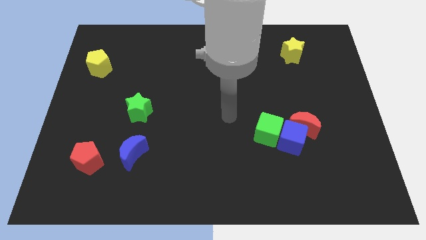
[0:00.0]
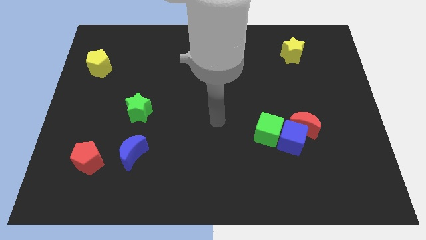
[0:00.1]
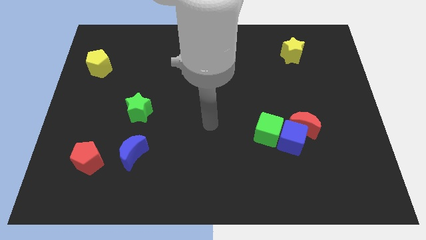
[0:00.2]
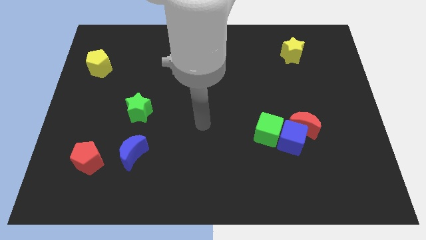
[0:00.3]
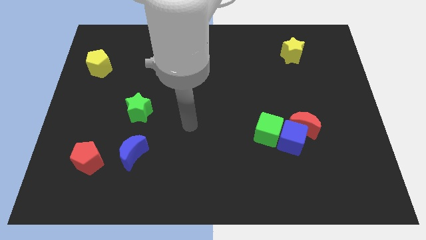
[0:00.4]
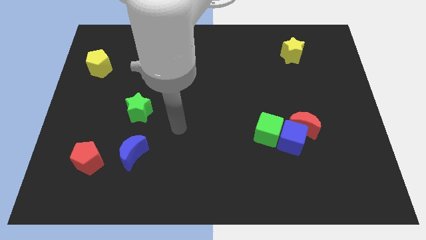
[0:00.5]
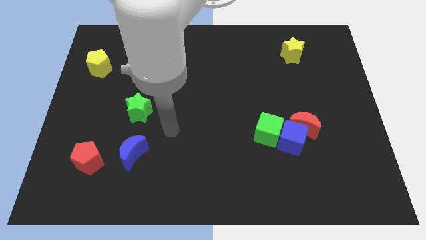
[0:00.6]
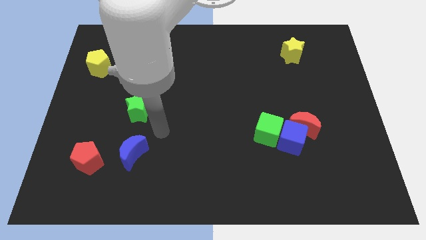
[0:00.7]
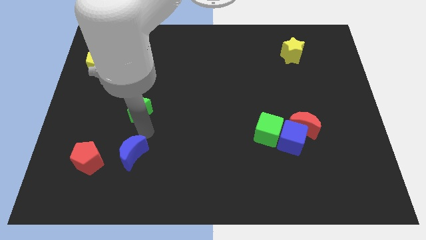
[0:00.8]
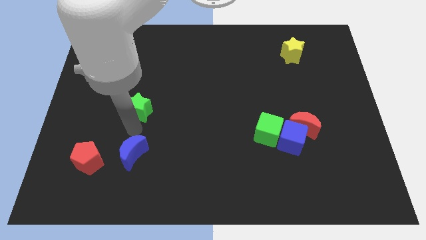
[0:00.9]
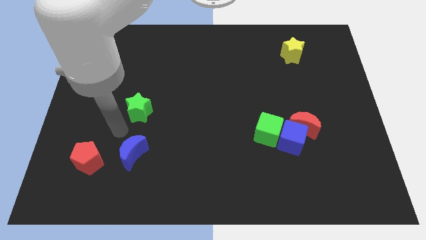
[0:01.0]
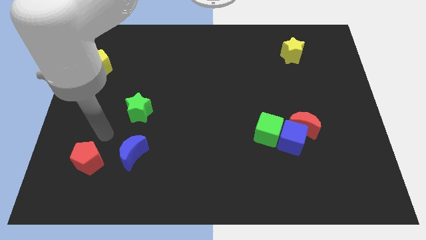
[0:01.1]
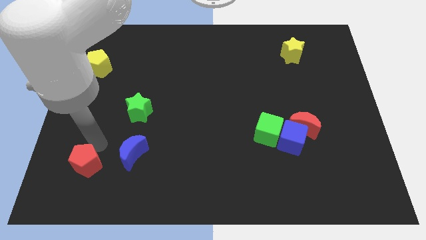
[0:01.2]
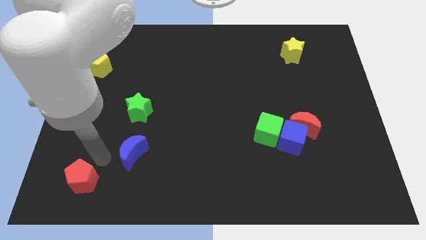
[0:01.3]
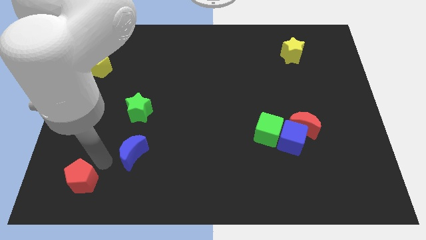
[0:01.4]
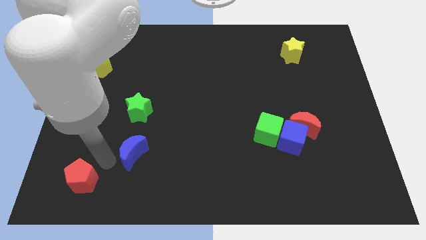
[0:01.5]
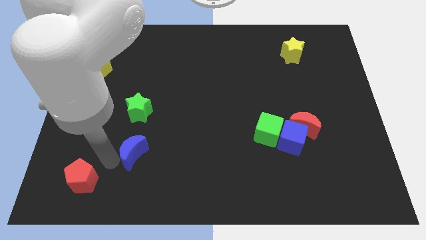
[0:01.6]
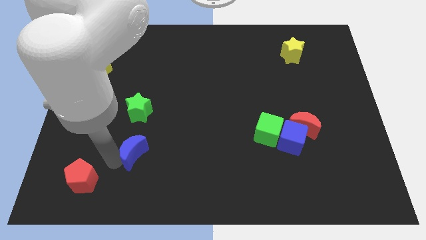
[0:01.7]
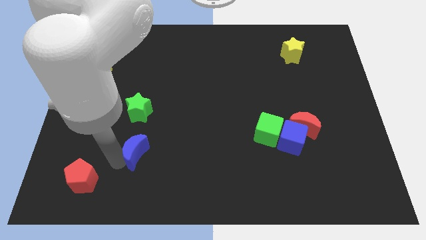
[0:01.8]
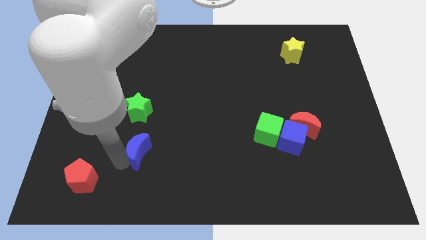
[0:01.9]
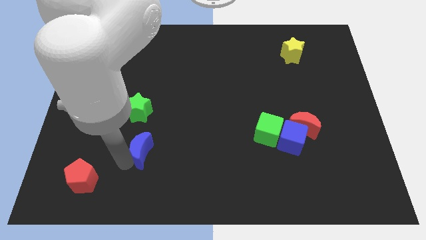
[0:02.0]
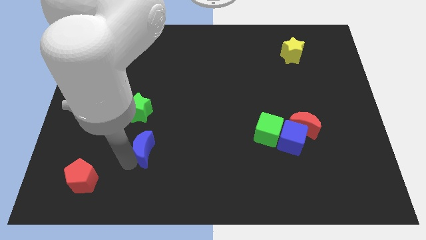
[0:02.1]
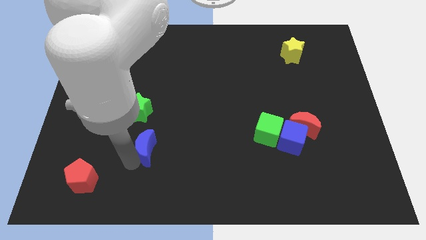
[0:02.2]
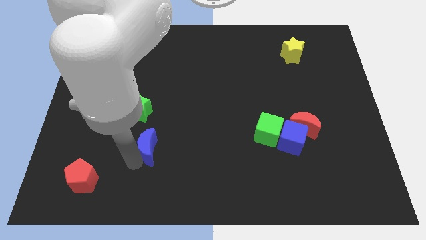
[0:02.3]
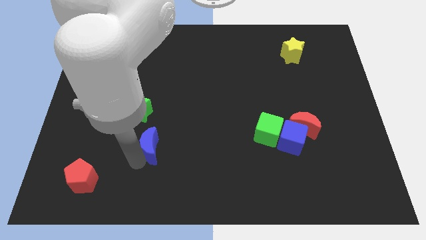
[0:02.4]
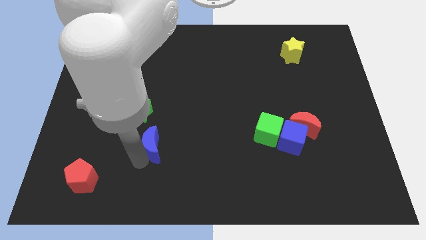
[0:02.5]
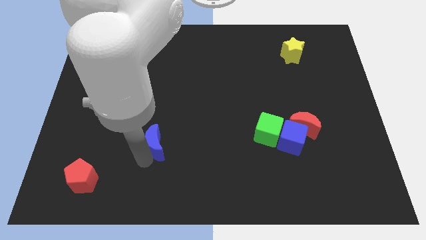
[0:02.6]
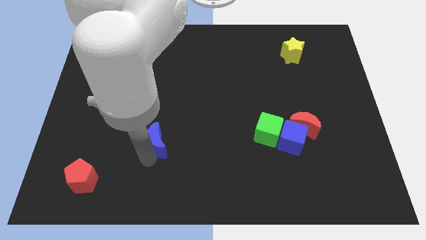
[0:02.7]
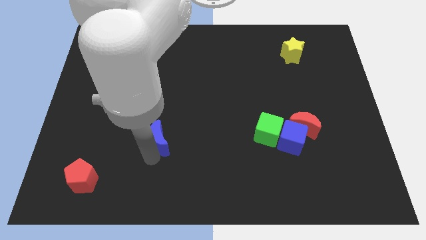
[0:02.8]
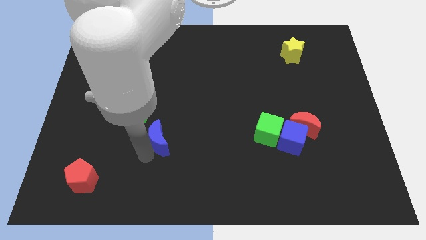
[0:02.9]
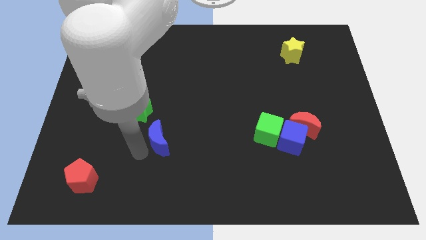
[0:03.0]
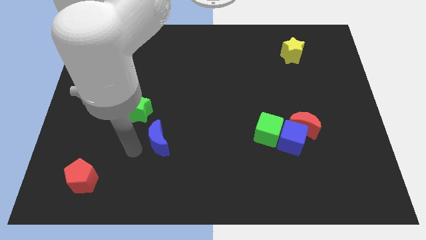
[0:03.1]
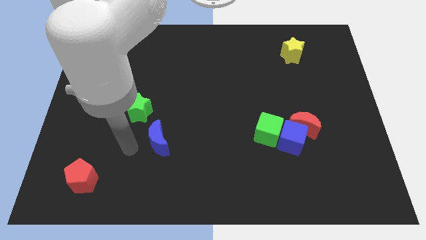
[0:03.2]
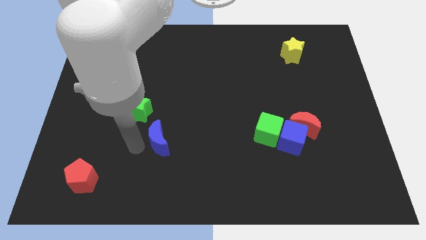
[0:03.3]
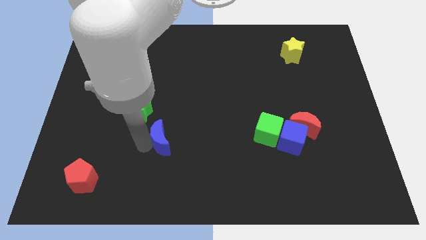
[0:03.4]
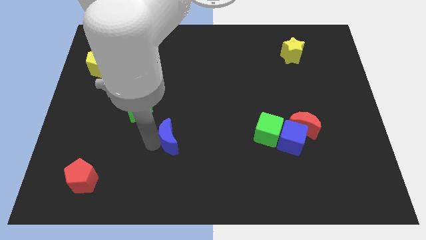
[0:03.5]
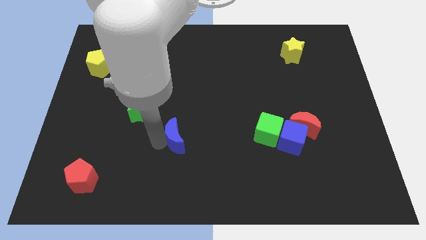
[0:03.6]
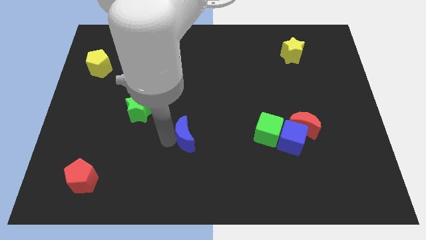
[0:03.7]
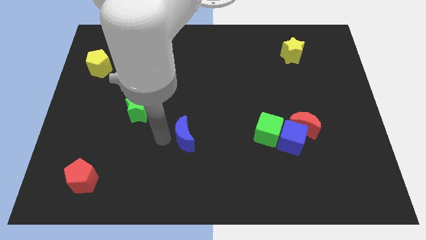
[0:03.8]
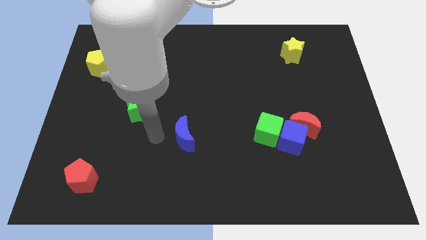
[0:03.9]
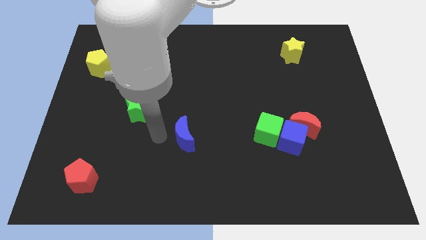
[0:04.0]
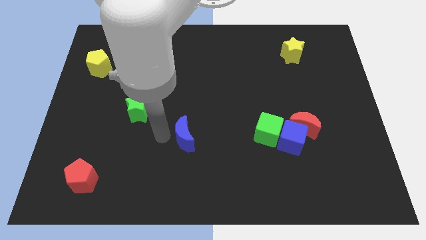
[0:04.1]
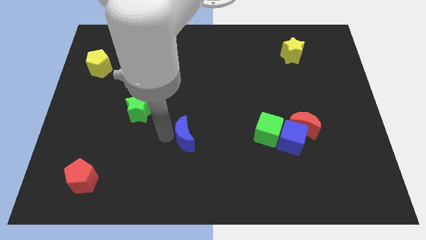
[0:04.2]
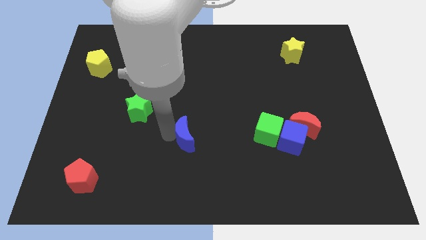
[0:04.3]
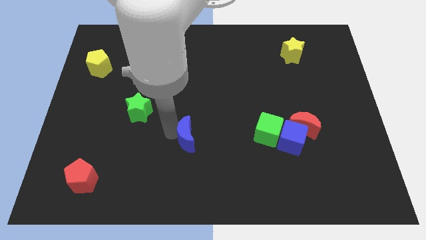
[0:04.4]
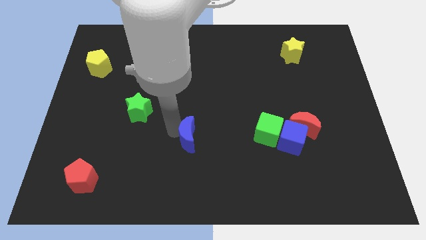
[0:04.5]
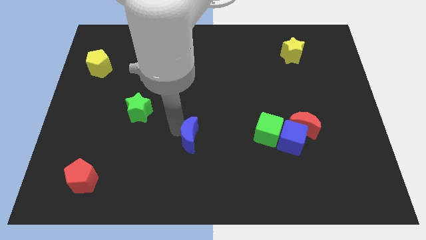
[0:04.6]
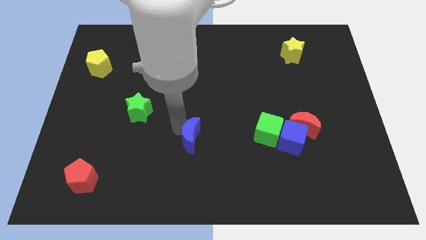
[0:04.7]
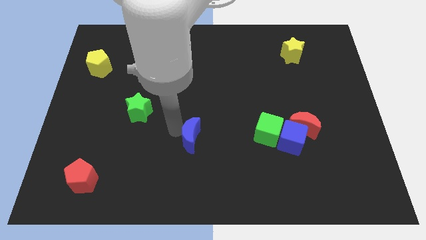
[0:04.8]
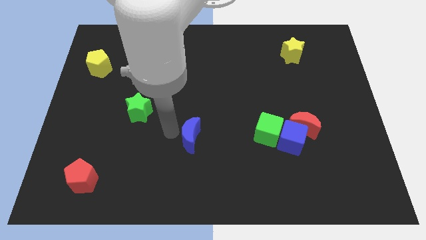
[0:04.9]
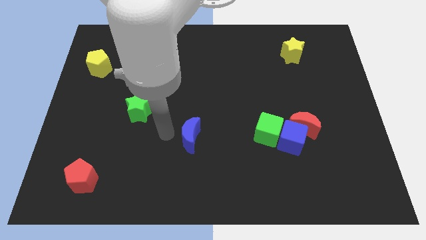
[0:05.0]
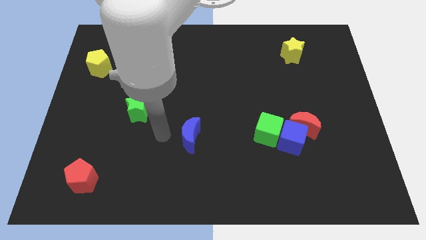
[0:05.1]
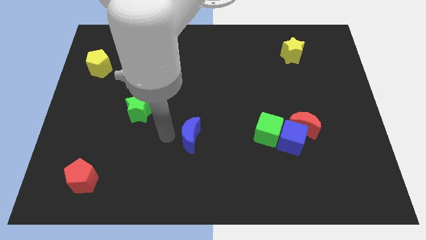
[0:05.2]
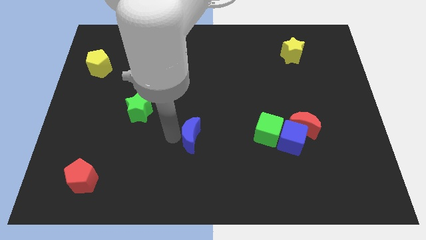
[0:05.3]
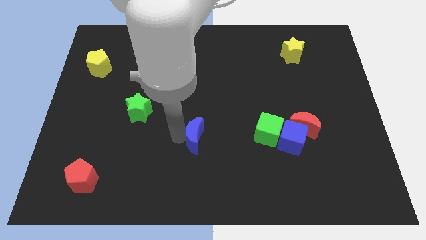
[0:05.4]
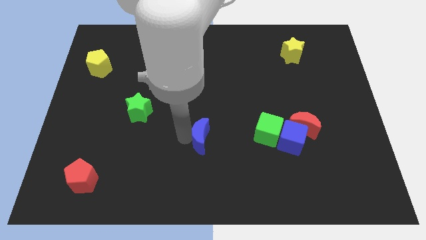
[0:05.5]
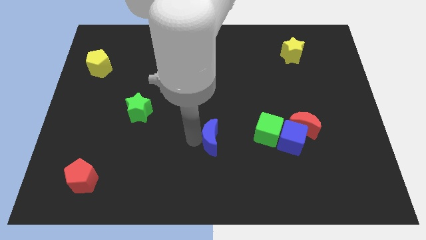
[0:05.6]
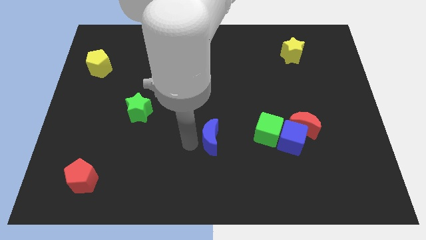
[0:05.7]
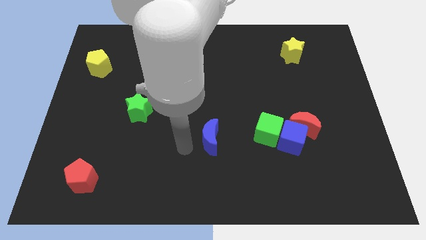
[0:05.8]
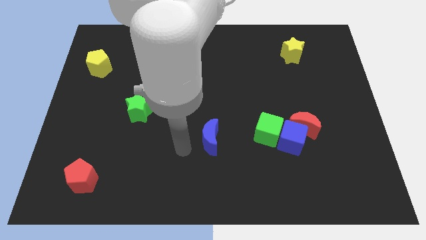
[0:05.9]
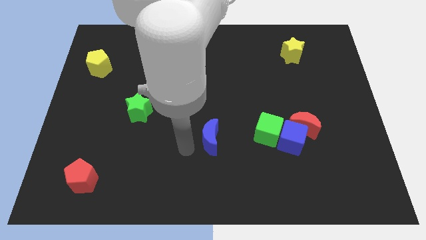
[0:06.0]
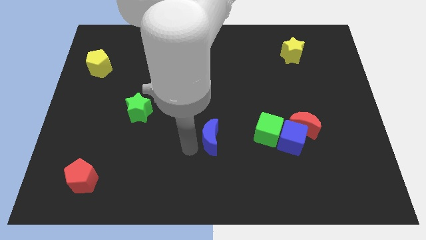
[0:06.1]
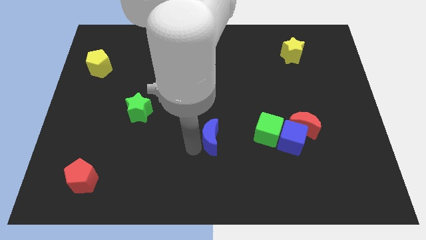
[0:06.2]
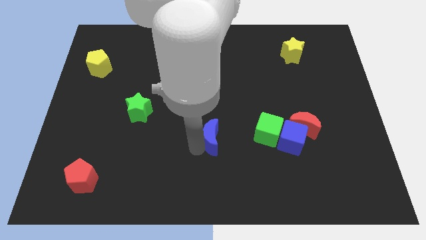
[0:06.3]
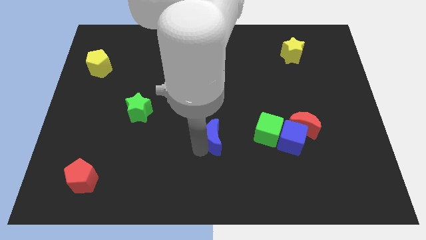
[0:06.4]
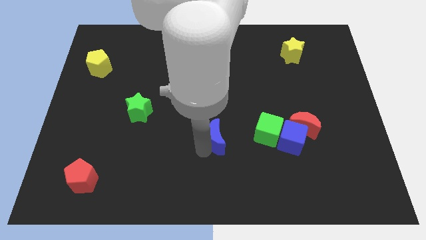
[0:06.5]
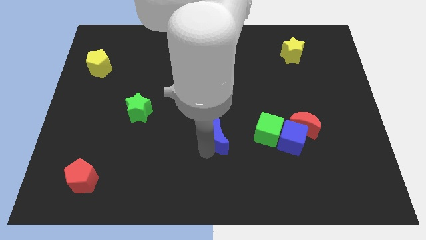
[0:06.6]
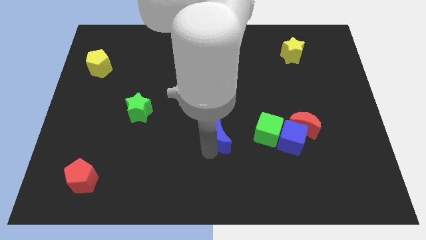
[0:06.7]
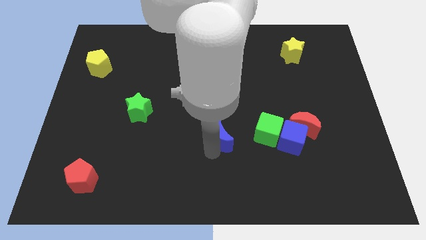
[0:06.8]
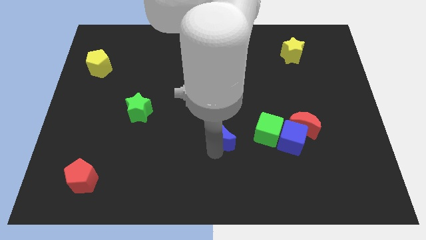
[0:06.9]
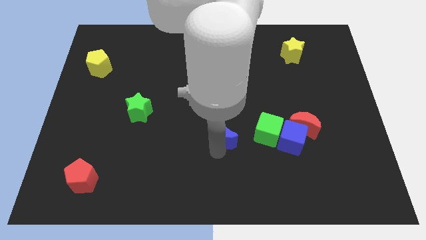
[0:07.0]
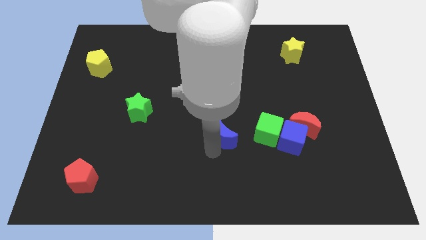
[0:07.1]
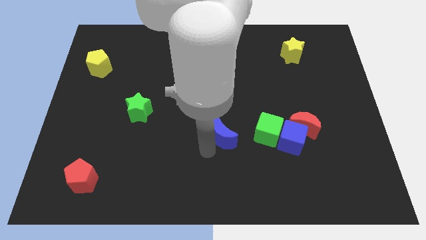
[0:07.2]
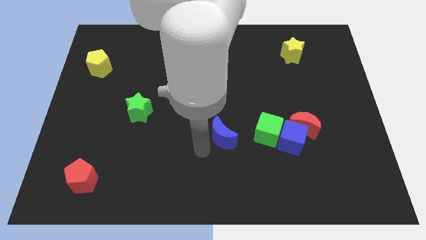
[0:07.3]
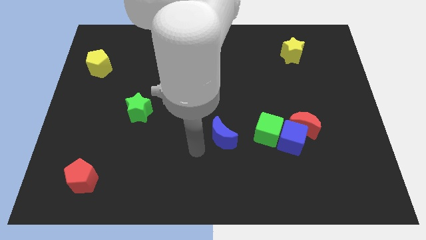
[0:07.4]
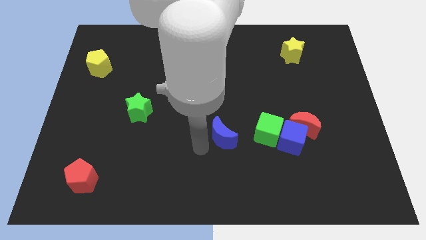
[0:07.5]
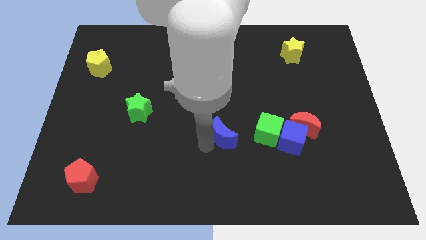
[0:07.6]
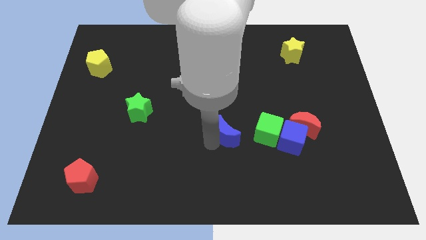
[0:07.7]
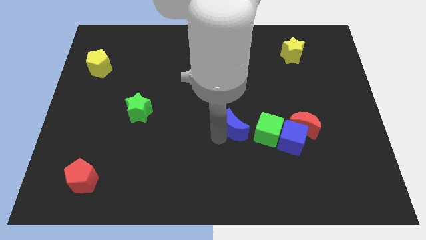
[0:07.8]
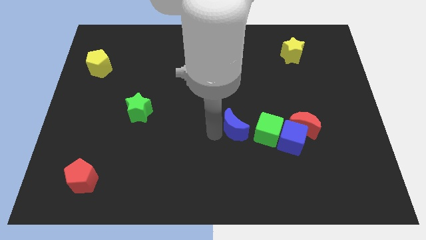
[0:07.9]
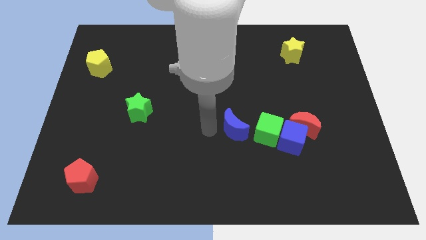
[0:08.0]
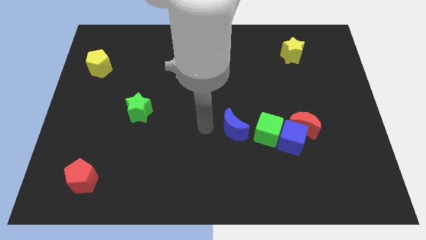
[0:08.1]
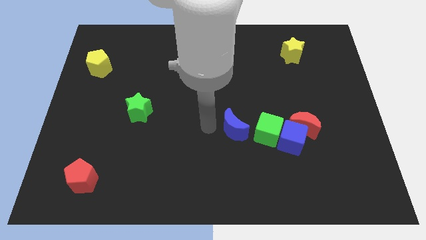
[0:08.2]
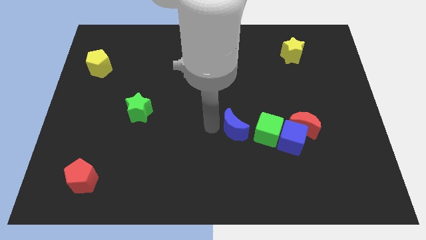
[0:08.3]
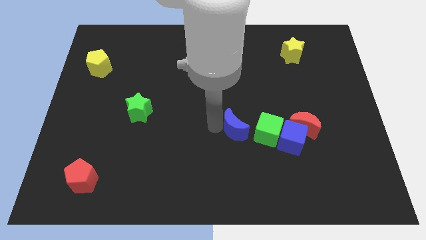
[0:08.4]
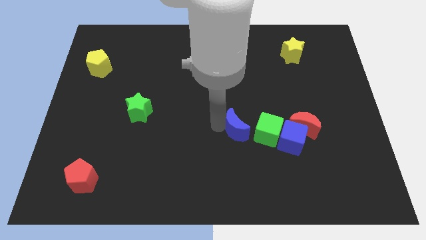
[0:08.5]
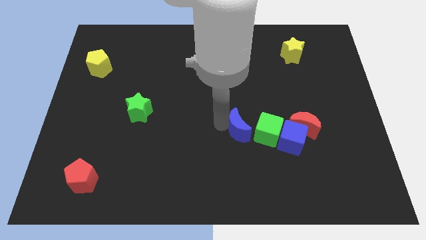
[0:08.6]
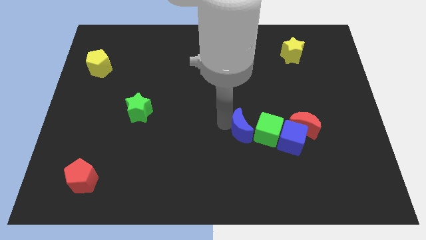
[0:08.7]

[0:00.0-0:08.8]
push the blue moon towards the green cube
